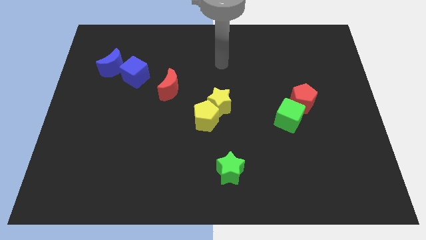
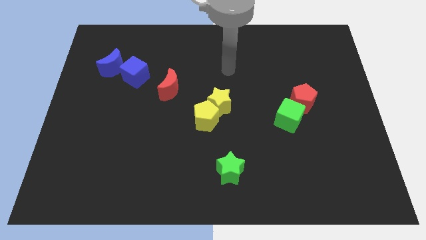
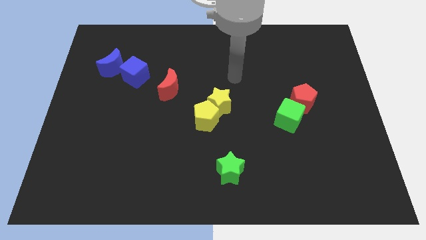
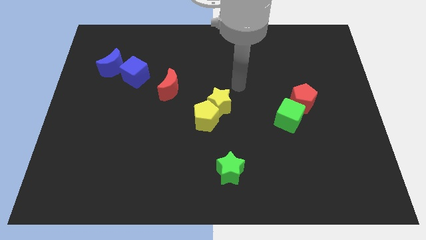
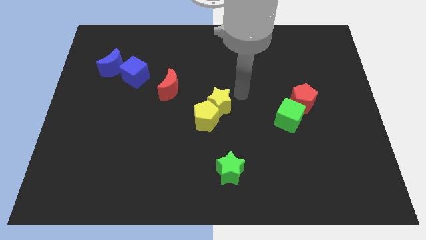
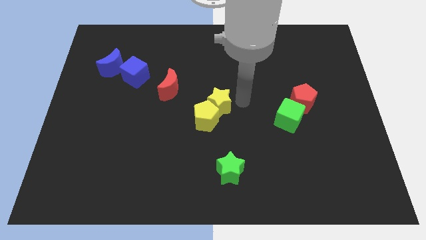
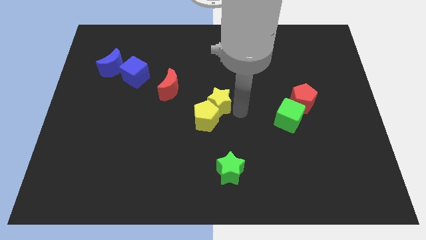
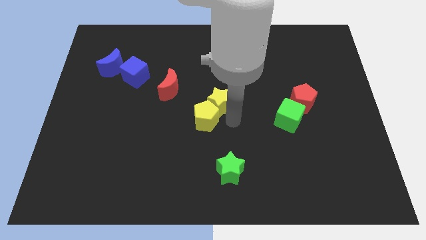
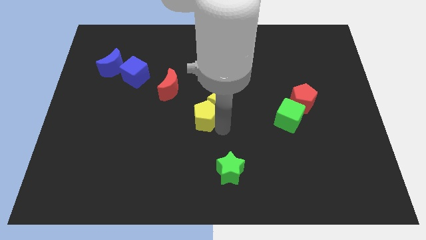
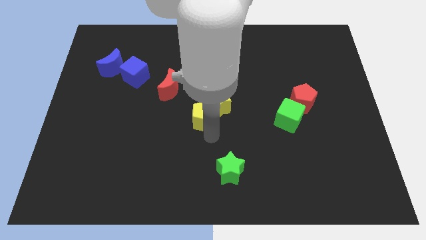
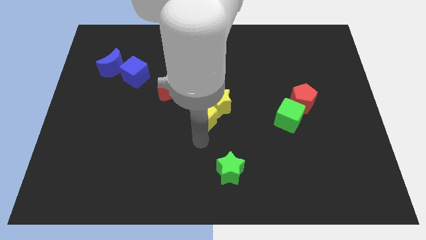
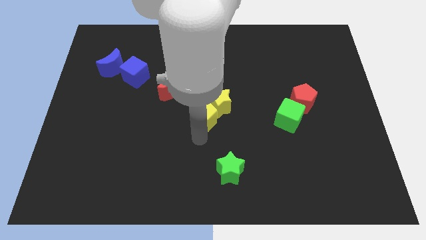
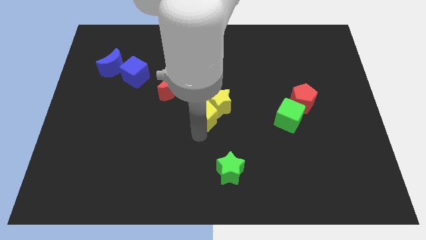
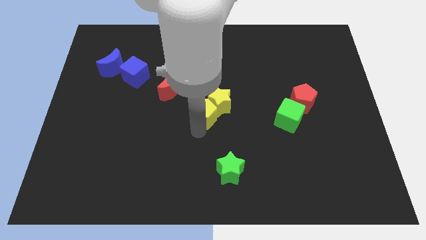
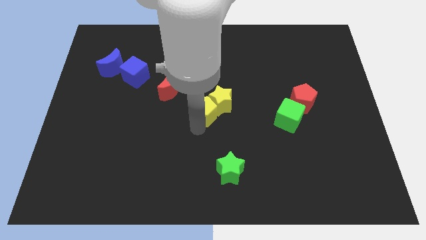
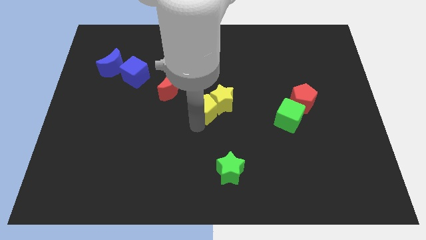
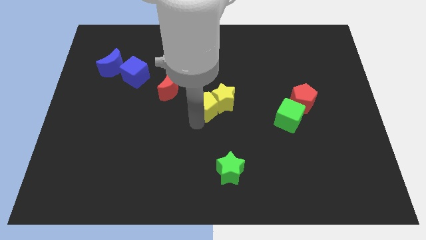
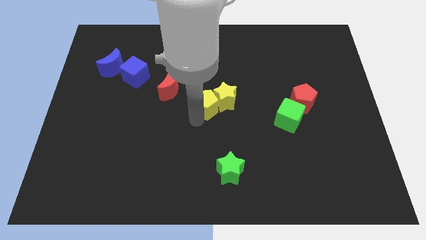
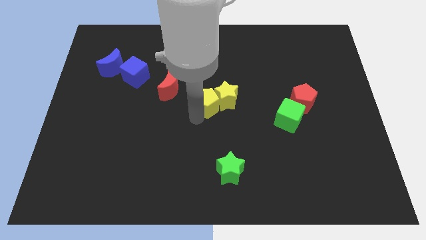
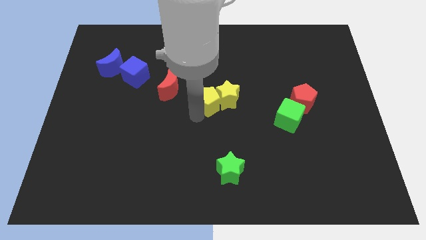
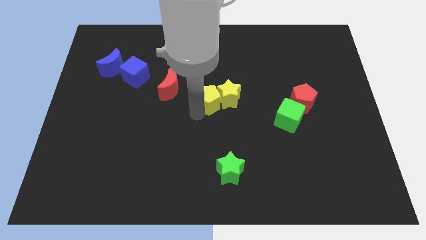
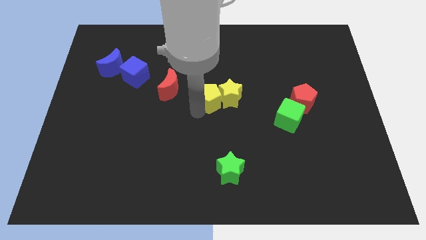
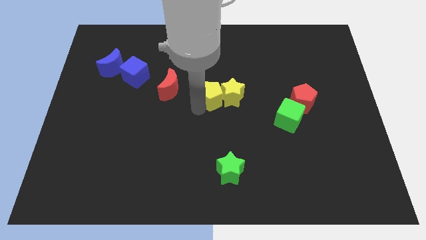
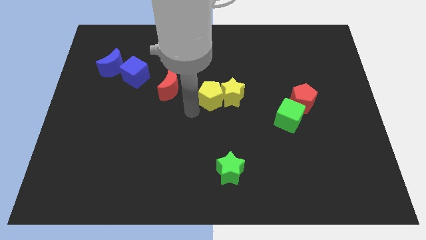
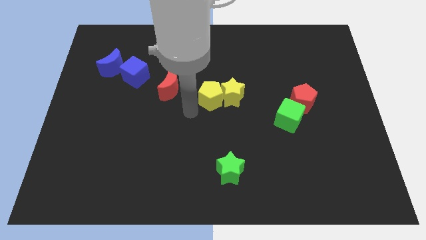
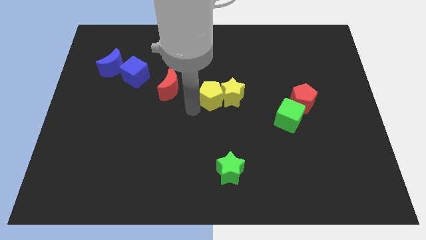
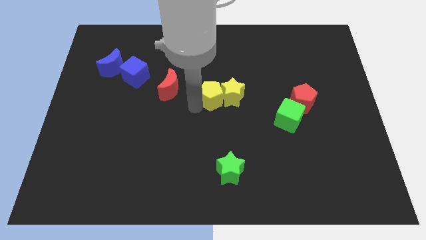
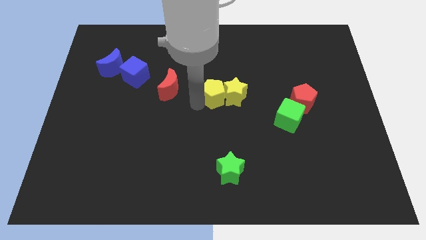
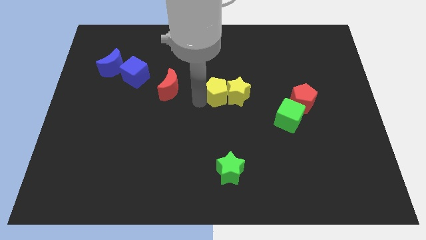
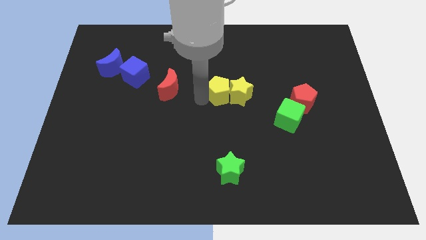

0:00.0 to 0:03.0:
push the yellow pentagon slightly upwards and to the right diagonally

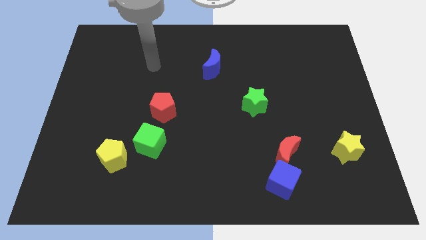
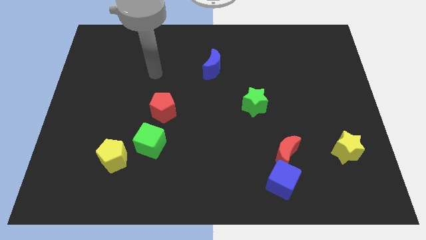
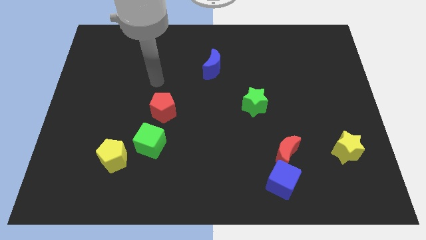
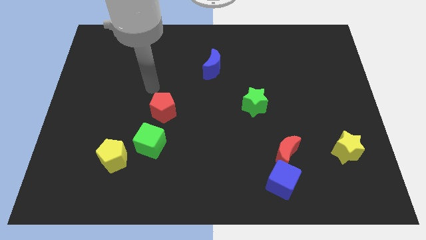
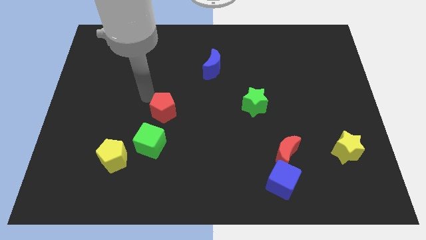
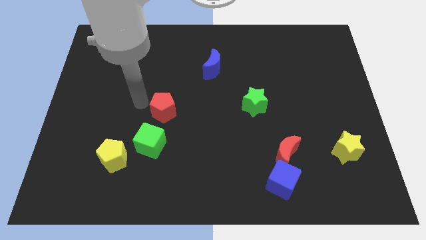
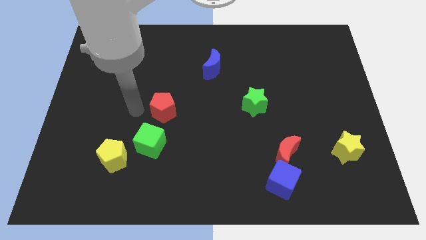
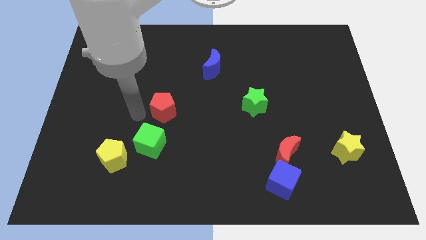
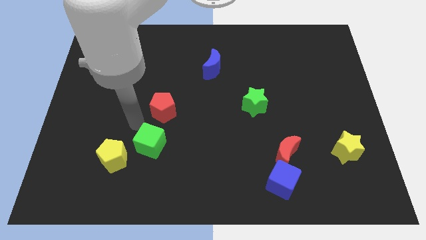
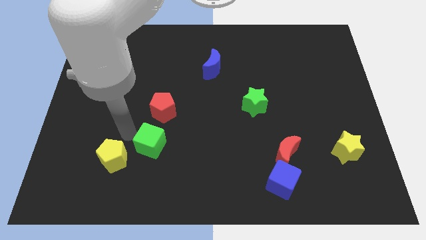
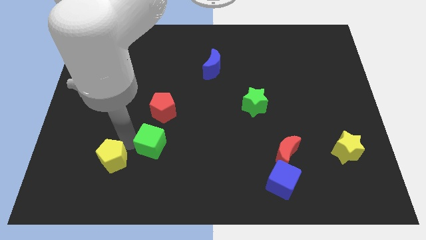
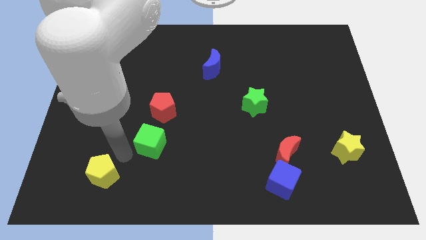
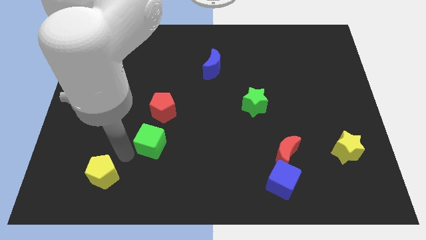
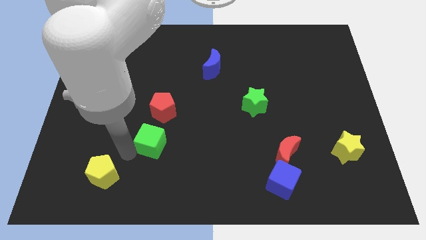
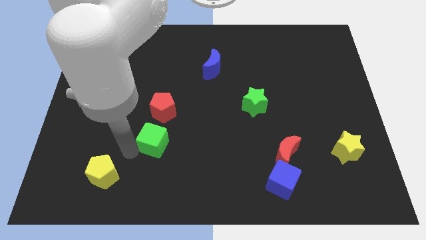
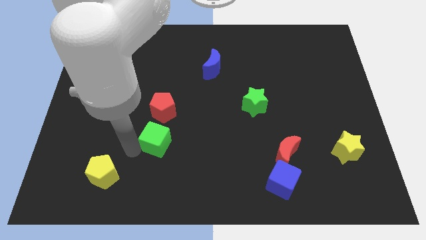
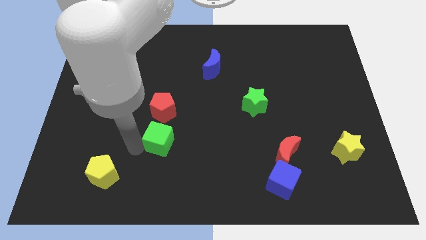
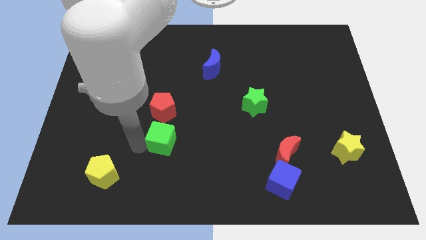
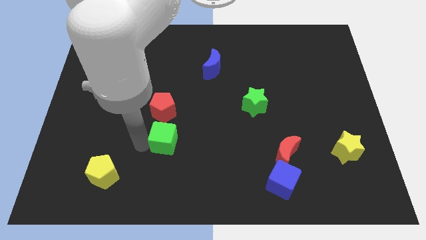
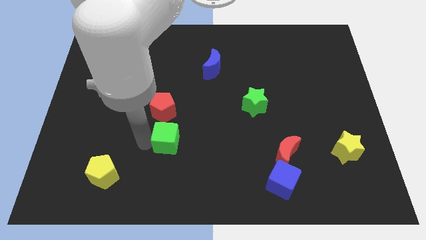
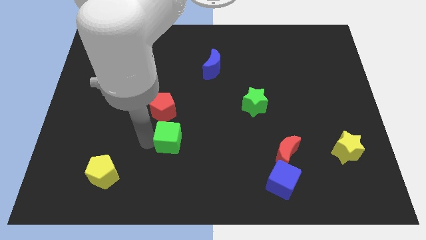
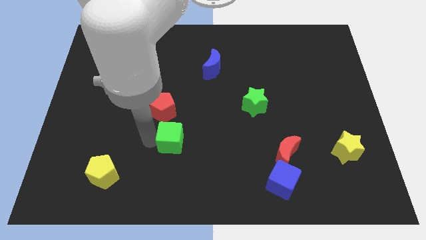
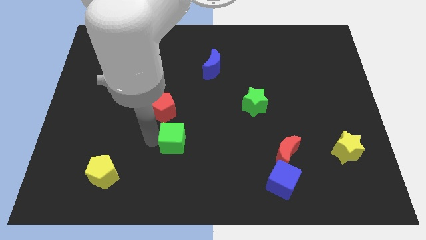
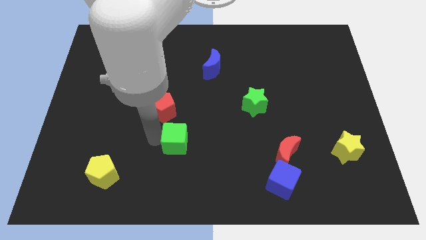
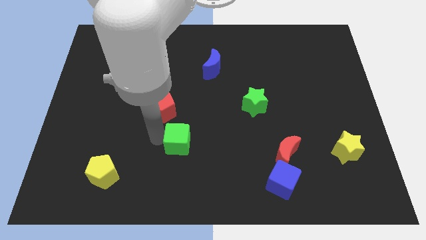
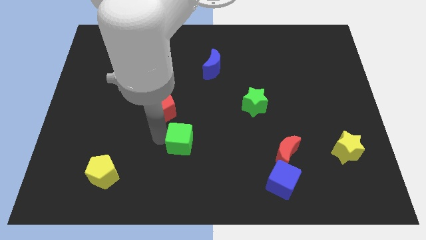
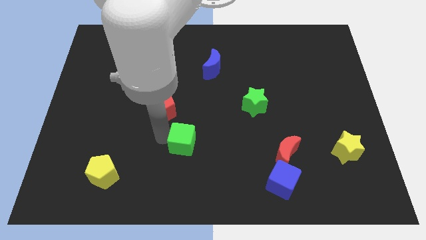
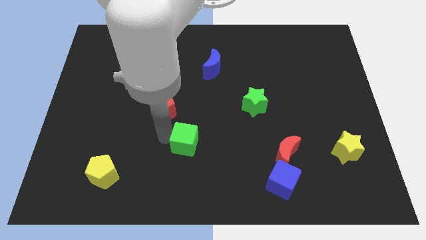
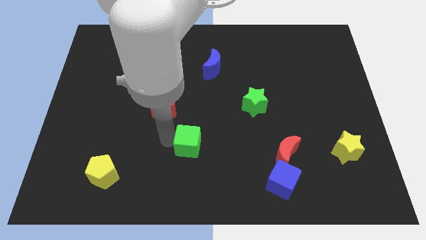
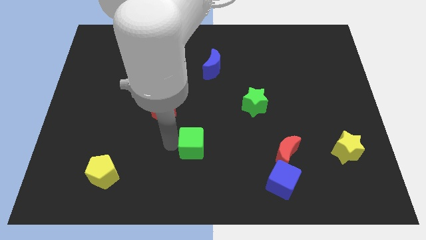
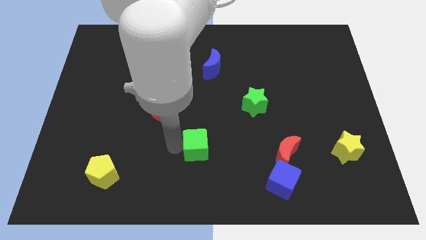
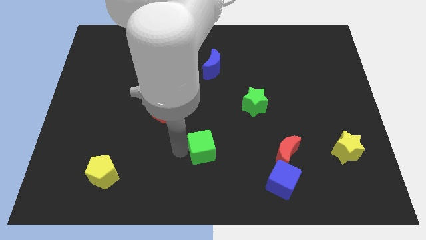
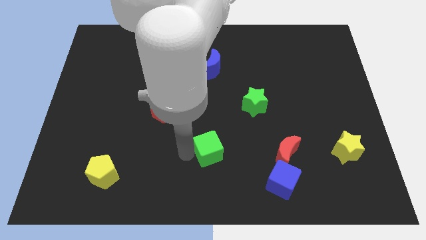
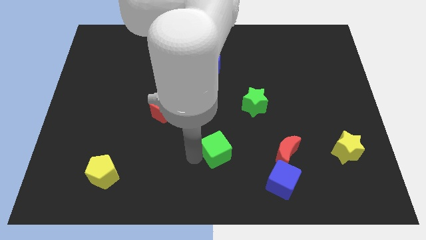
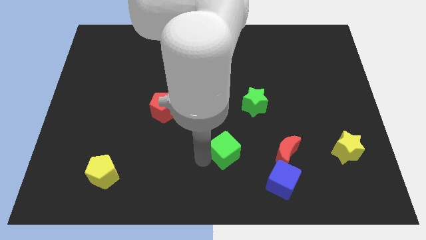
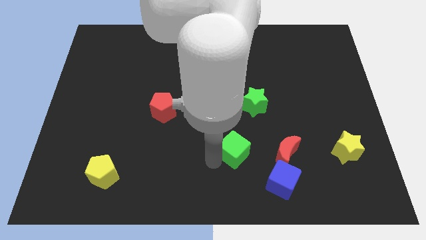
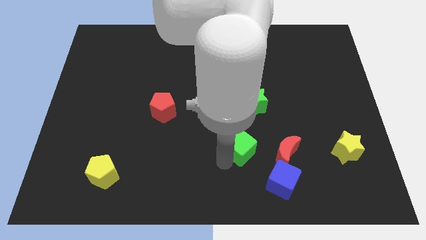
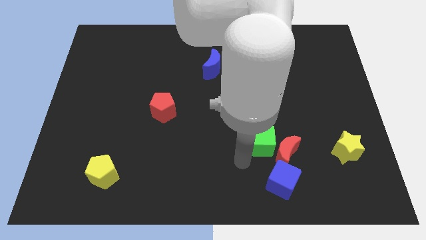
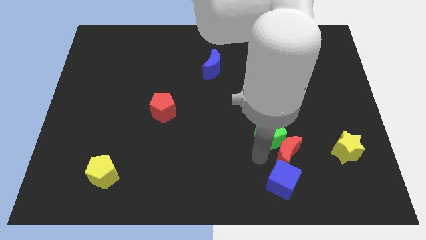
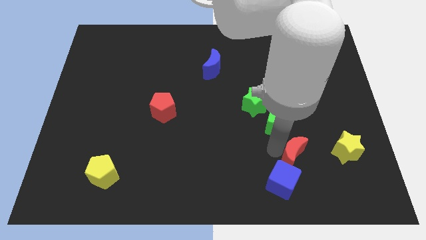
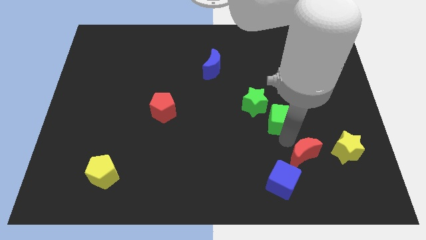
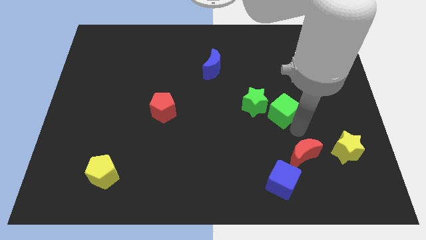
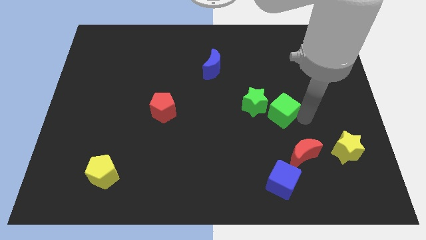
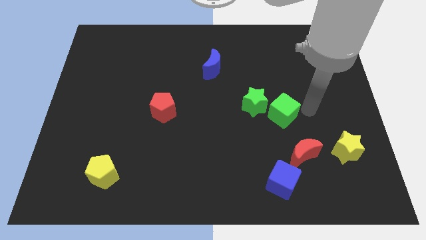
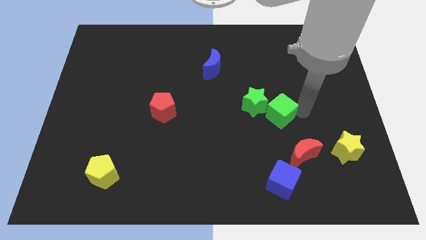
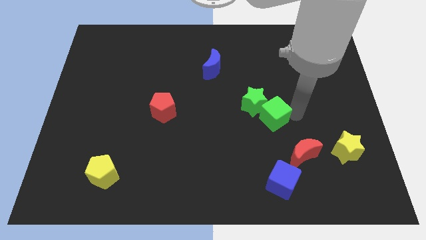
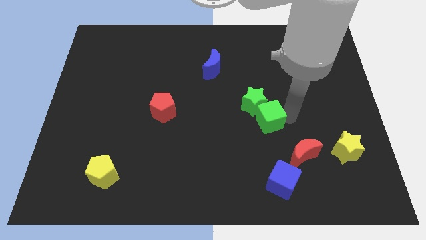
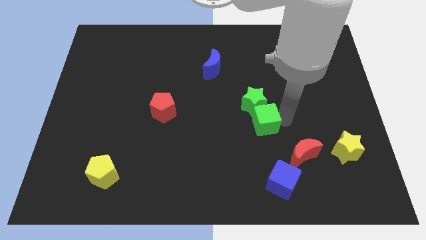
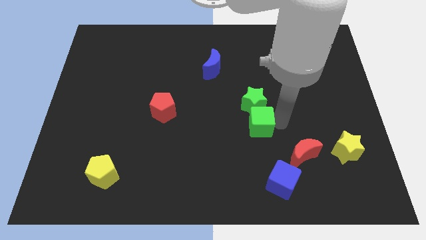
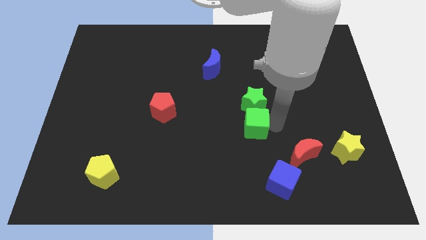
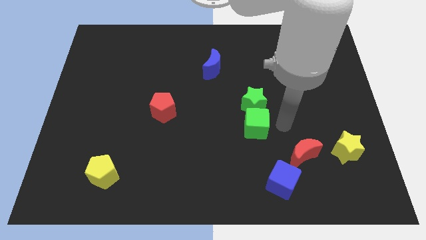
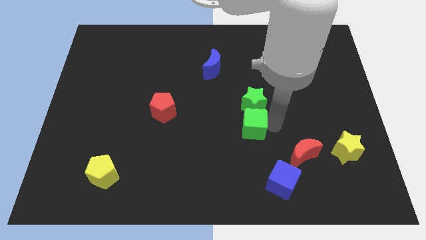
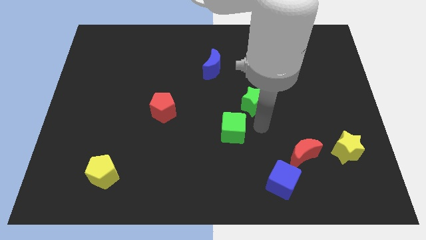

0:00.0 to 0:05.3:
move the green cube a bit upwards and then right
